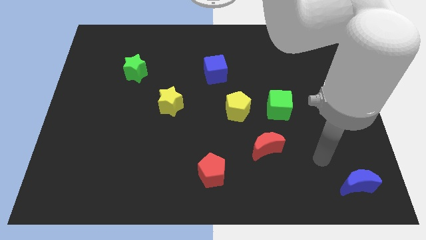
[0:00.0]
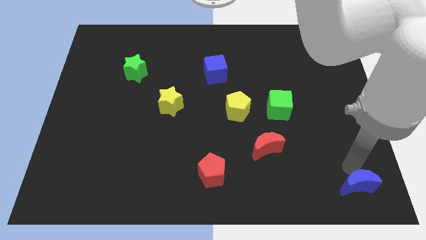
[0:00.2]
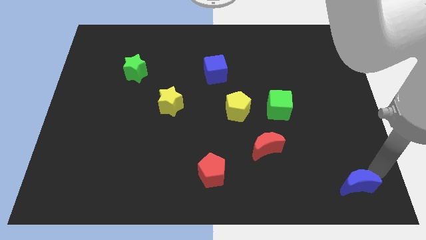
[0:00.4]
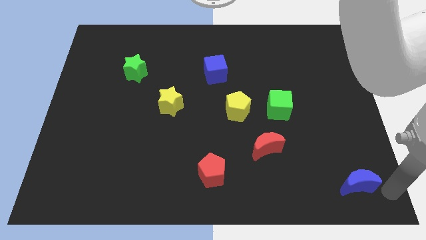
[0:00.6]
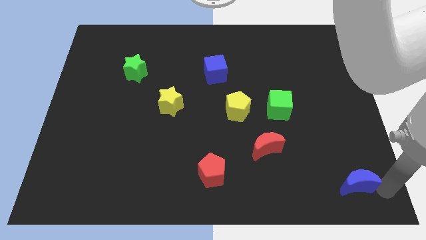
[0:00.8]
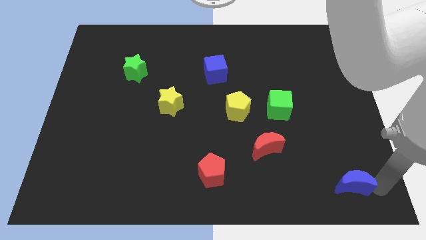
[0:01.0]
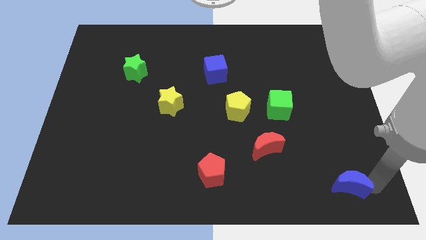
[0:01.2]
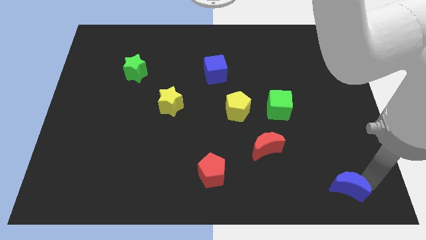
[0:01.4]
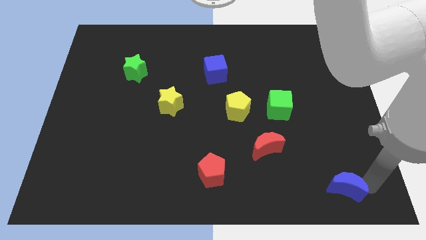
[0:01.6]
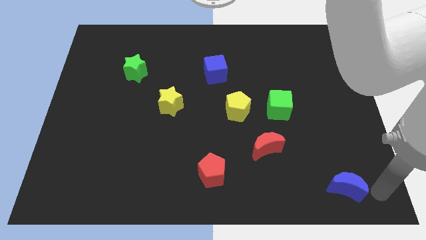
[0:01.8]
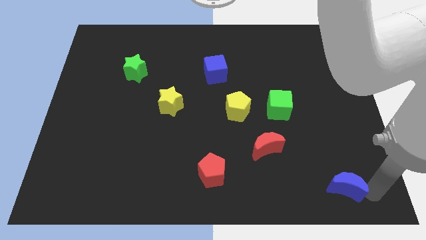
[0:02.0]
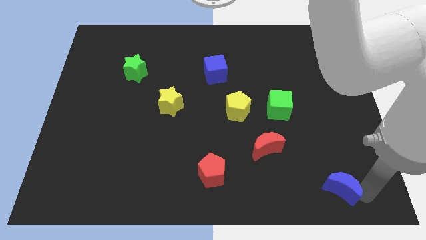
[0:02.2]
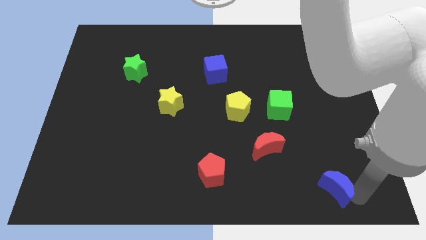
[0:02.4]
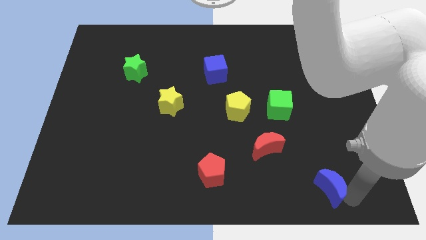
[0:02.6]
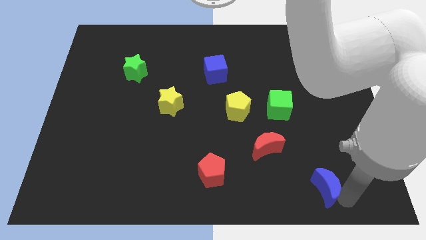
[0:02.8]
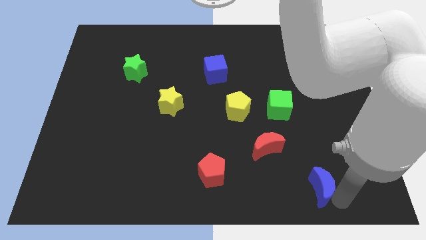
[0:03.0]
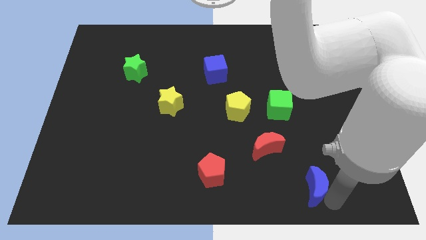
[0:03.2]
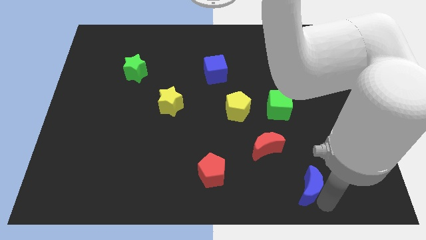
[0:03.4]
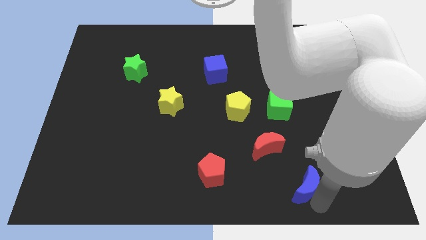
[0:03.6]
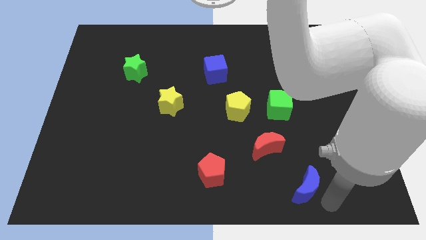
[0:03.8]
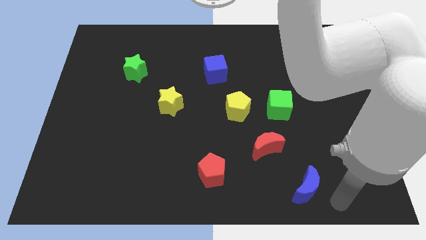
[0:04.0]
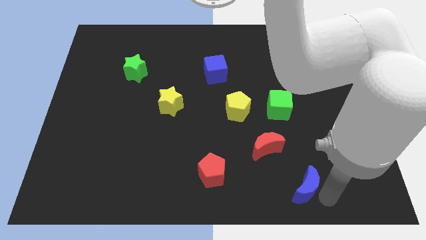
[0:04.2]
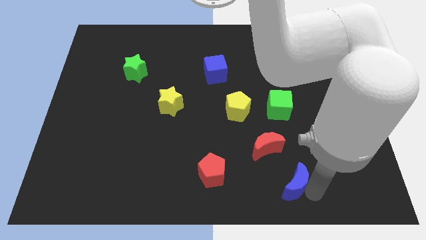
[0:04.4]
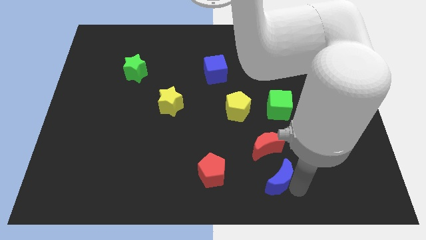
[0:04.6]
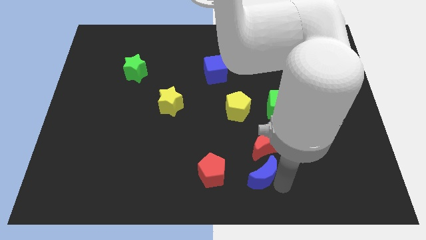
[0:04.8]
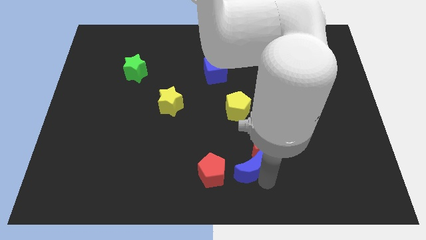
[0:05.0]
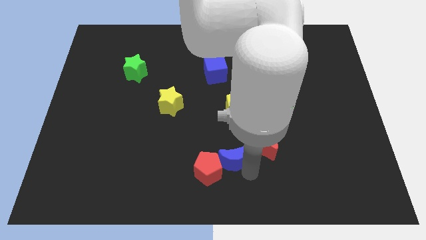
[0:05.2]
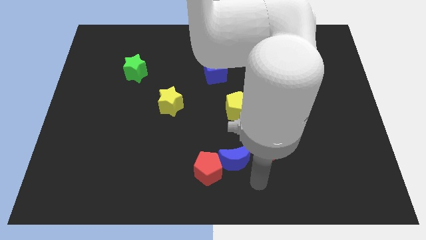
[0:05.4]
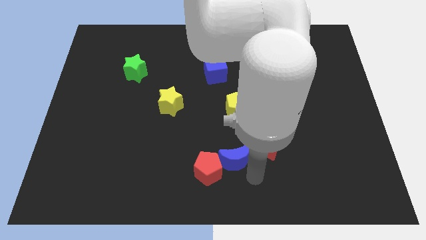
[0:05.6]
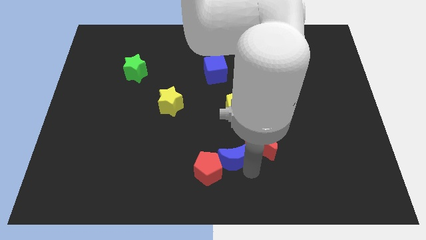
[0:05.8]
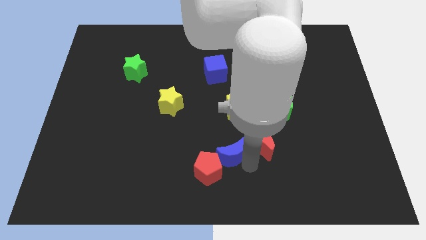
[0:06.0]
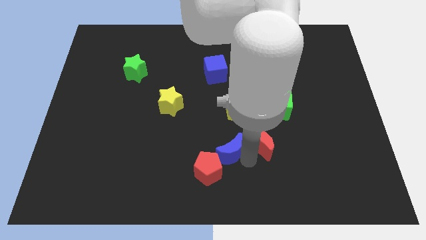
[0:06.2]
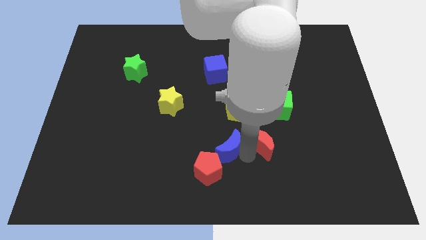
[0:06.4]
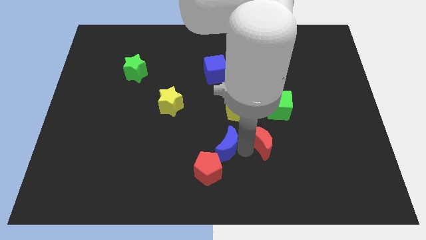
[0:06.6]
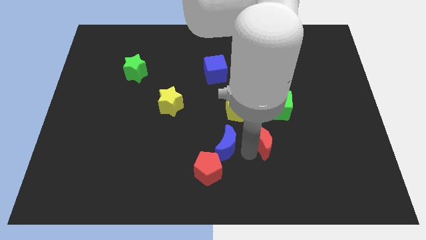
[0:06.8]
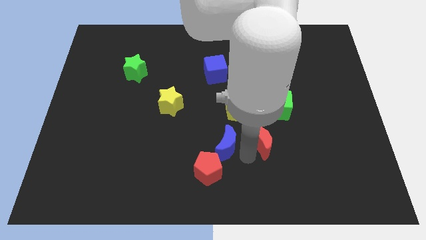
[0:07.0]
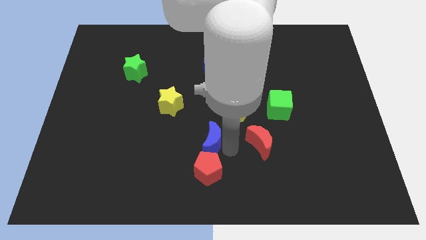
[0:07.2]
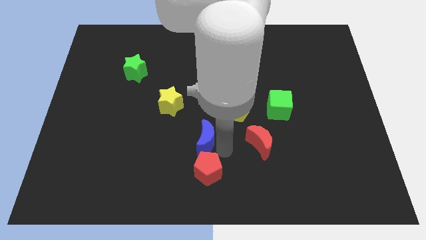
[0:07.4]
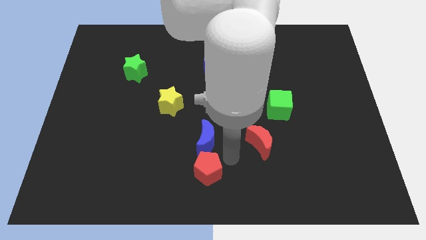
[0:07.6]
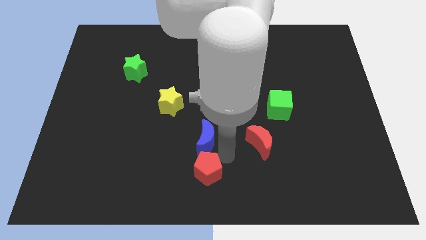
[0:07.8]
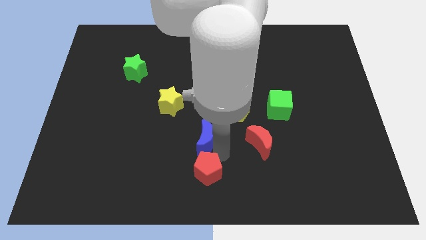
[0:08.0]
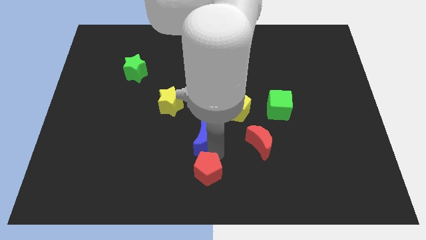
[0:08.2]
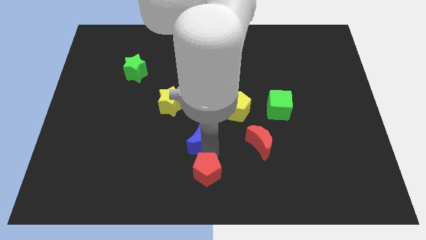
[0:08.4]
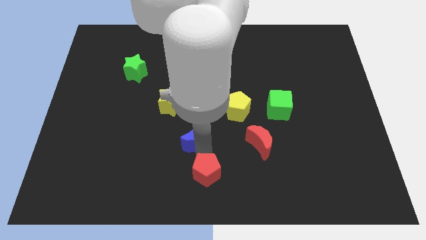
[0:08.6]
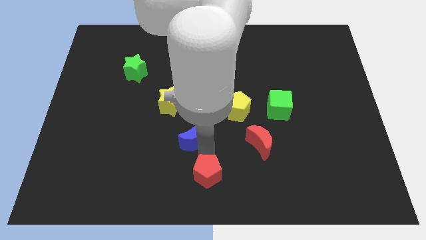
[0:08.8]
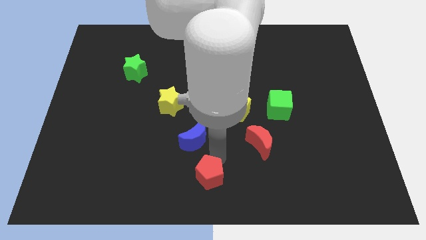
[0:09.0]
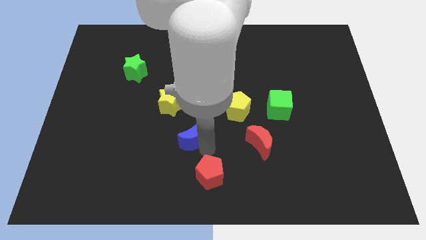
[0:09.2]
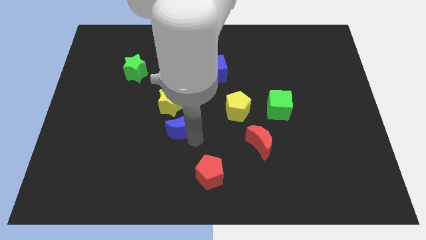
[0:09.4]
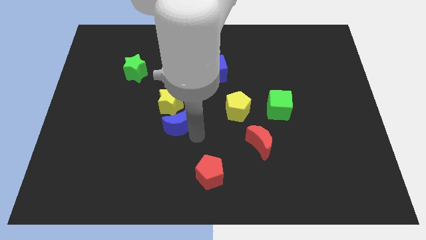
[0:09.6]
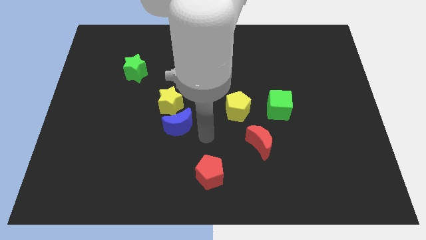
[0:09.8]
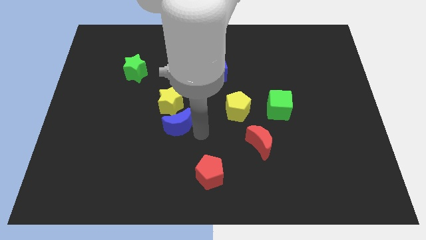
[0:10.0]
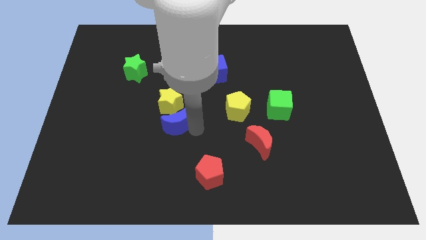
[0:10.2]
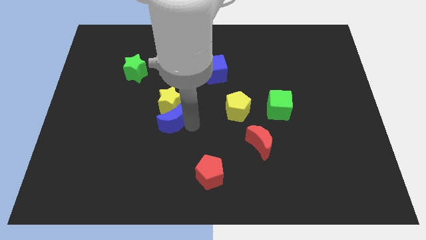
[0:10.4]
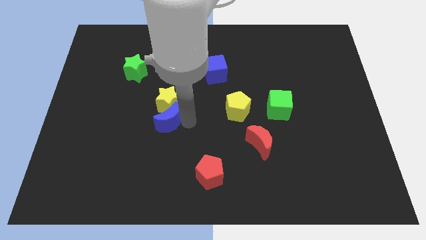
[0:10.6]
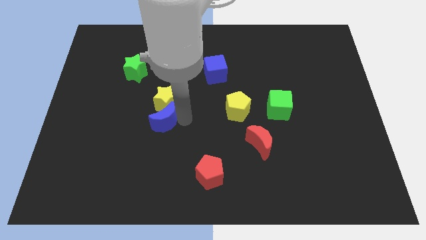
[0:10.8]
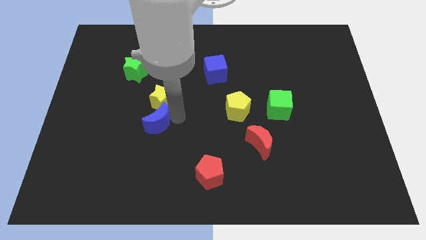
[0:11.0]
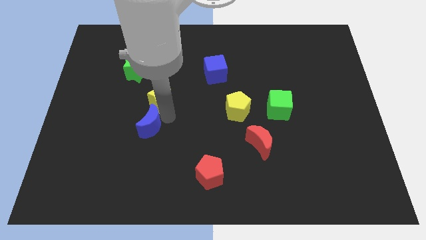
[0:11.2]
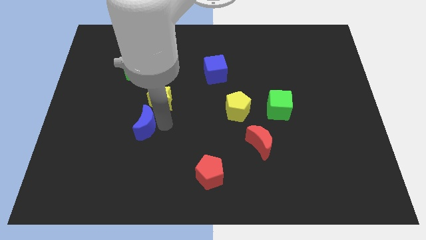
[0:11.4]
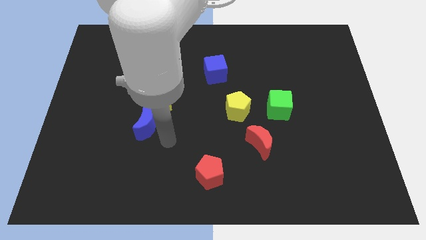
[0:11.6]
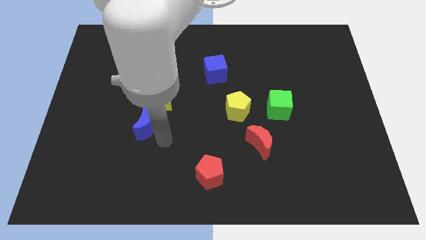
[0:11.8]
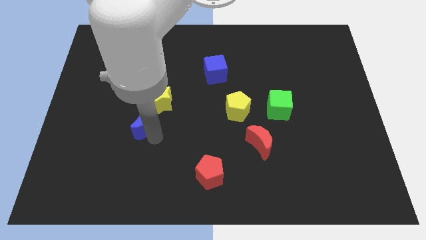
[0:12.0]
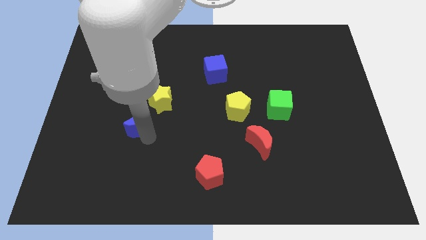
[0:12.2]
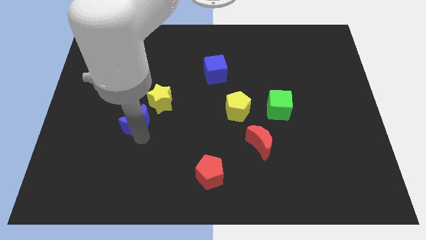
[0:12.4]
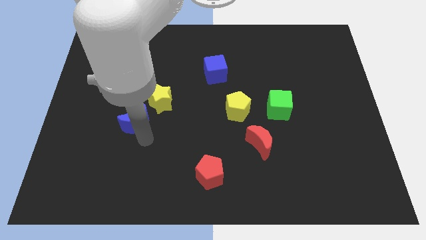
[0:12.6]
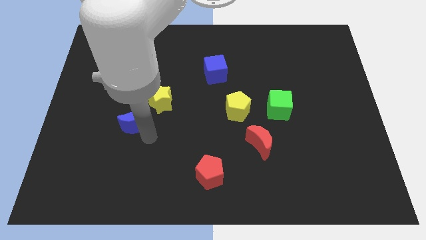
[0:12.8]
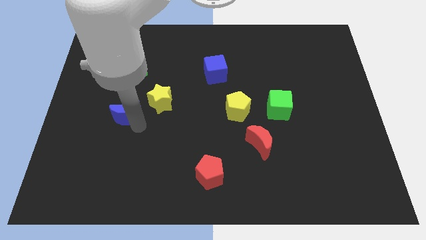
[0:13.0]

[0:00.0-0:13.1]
put the blue moon left of the yellow star
